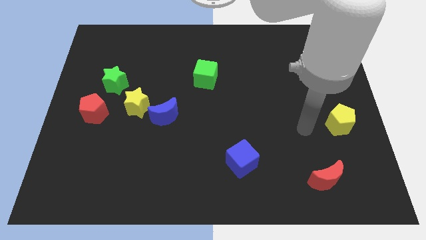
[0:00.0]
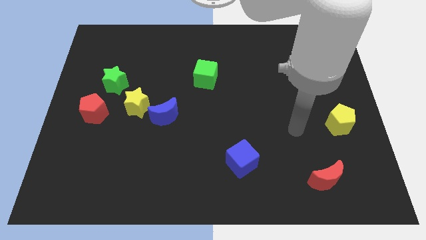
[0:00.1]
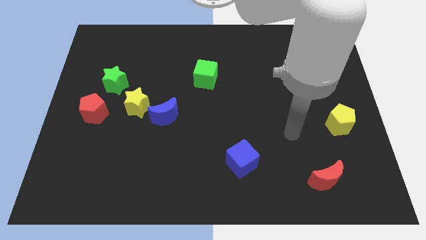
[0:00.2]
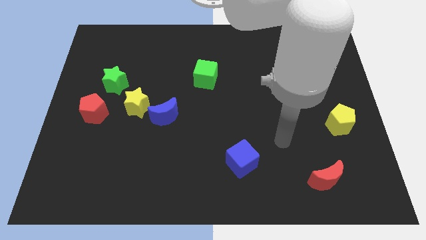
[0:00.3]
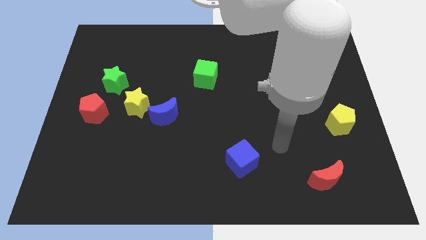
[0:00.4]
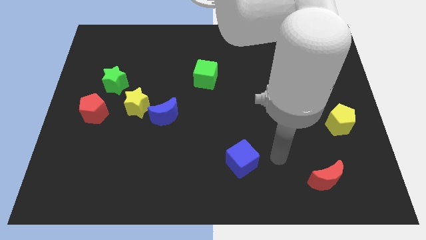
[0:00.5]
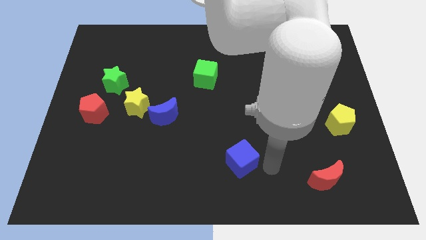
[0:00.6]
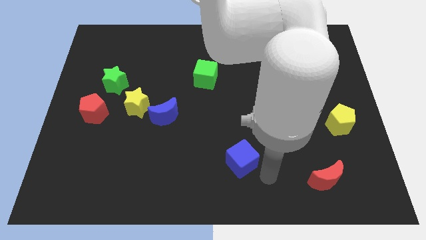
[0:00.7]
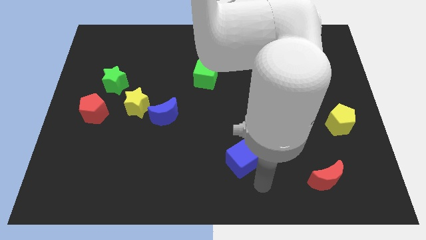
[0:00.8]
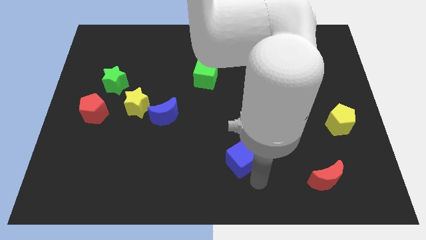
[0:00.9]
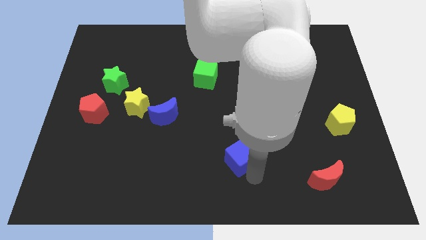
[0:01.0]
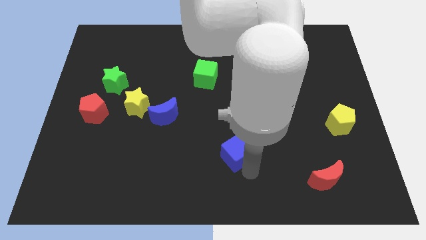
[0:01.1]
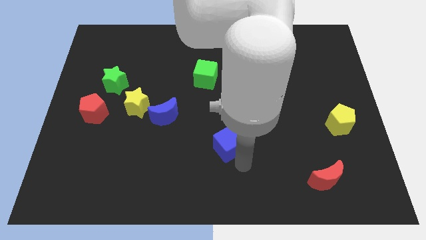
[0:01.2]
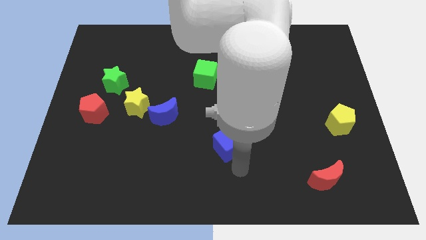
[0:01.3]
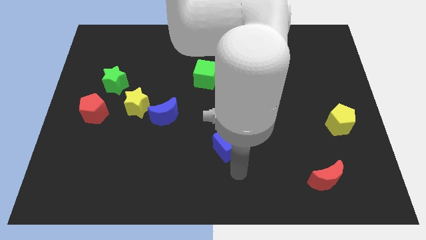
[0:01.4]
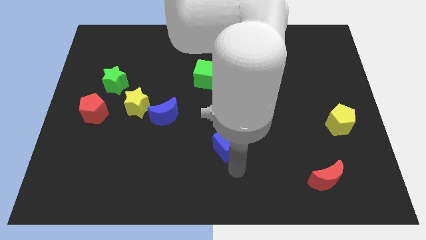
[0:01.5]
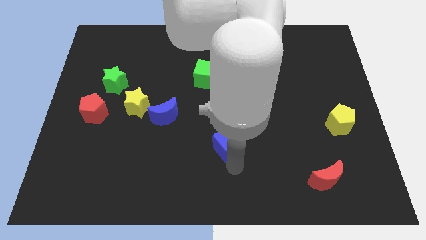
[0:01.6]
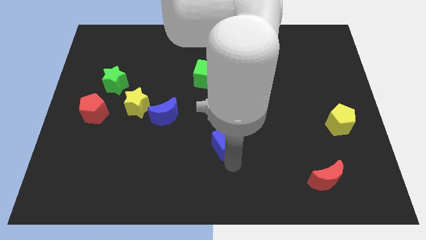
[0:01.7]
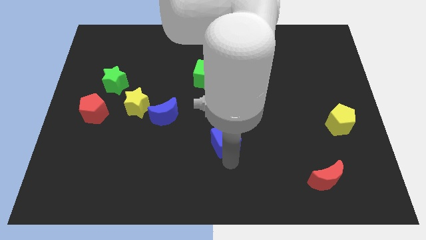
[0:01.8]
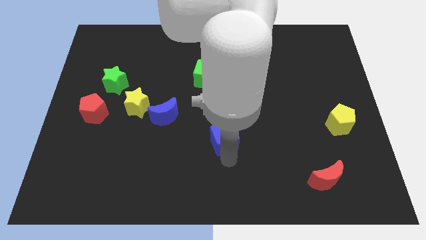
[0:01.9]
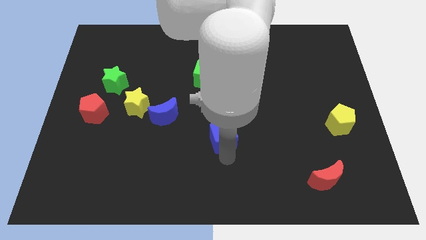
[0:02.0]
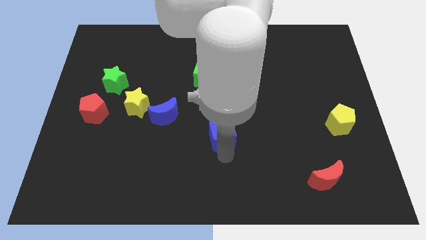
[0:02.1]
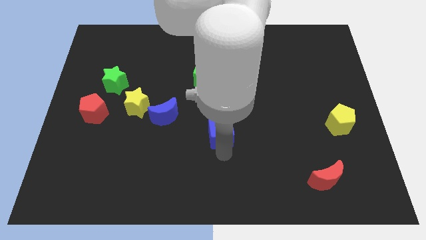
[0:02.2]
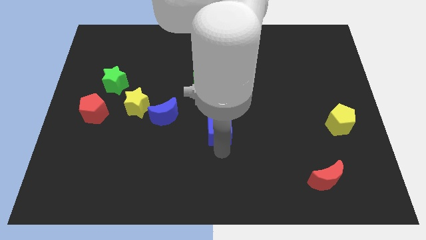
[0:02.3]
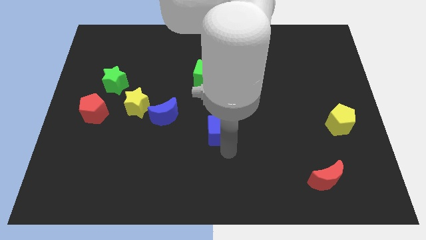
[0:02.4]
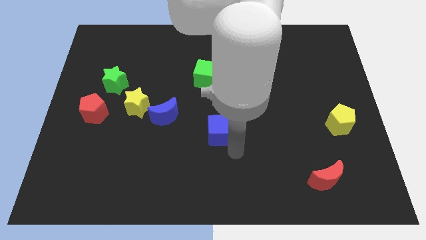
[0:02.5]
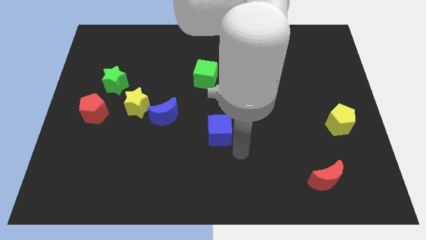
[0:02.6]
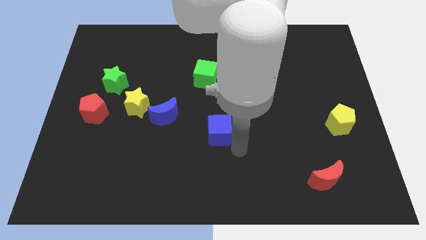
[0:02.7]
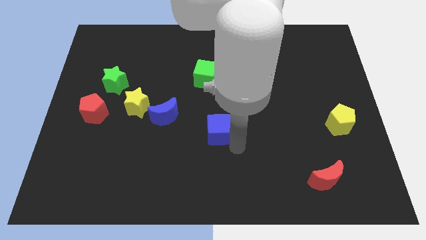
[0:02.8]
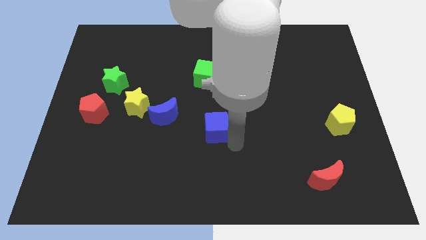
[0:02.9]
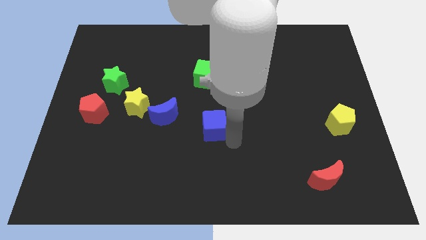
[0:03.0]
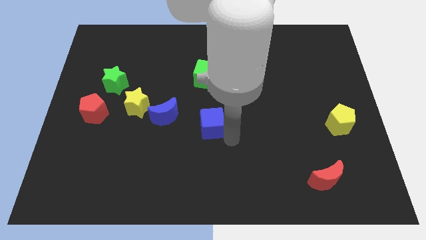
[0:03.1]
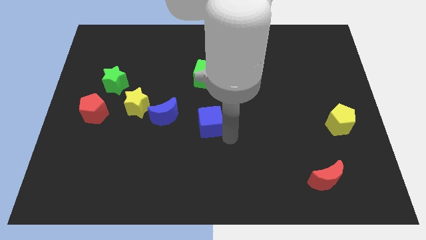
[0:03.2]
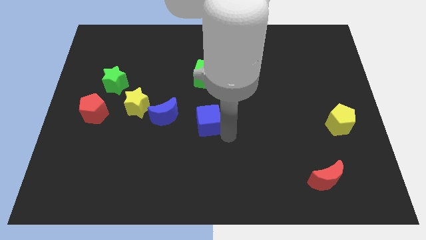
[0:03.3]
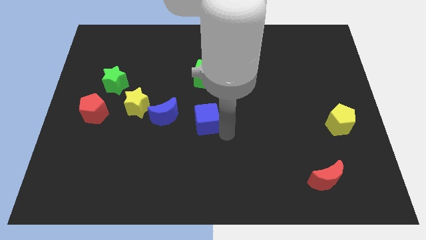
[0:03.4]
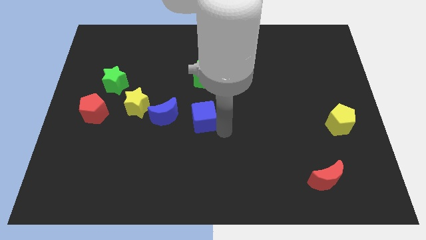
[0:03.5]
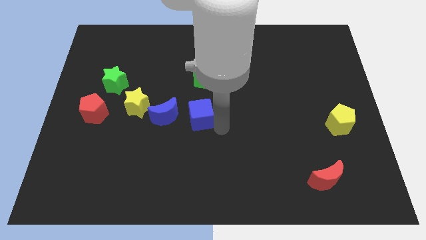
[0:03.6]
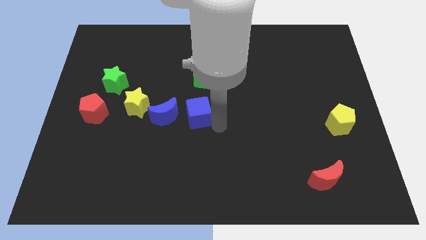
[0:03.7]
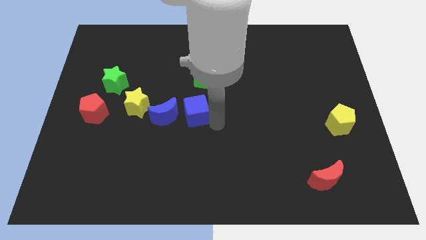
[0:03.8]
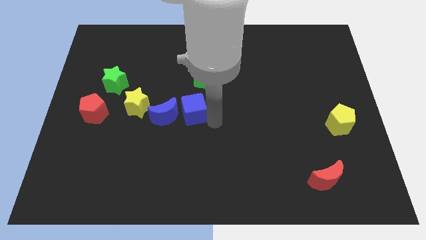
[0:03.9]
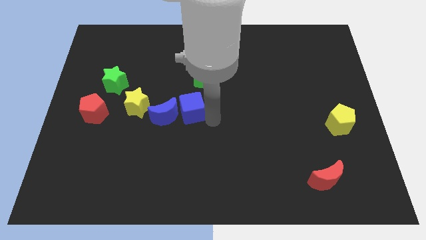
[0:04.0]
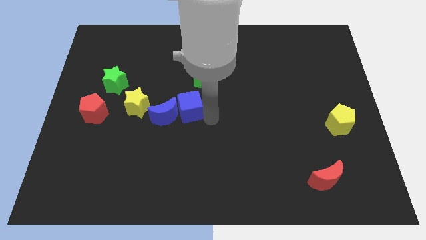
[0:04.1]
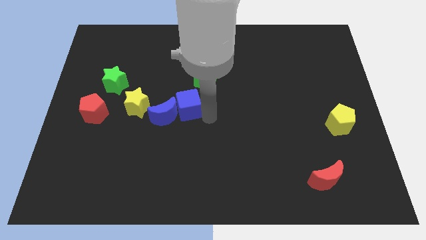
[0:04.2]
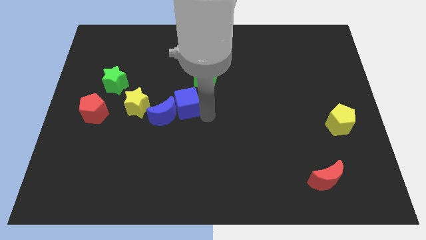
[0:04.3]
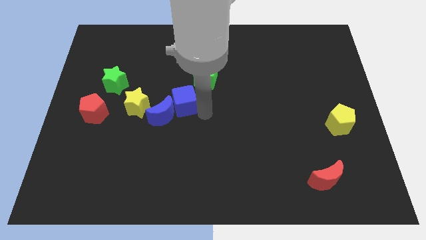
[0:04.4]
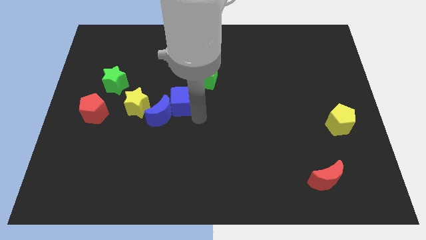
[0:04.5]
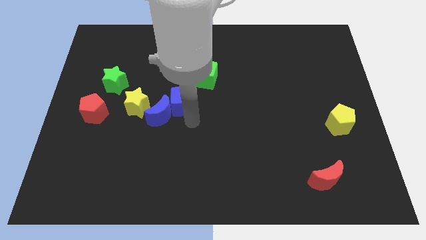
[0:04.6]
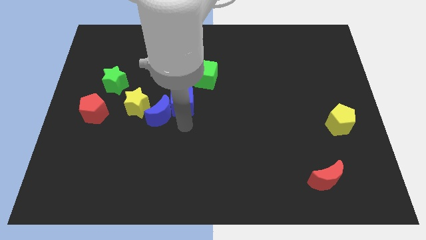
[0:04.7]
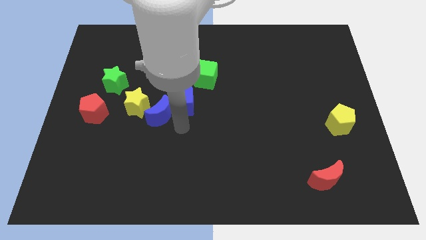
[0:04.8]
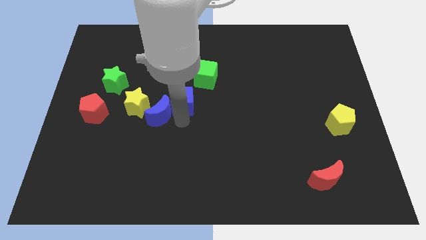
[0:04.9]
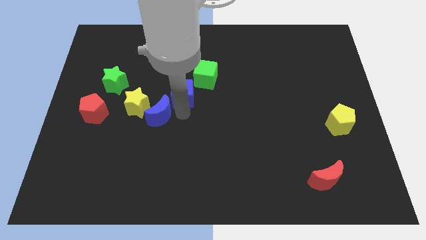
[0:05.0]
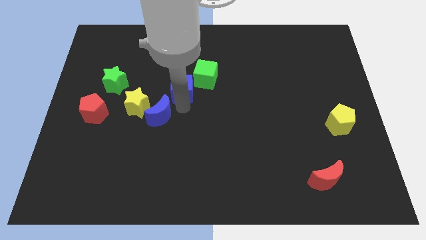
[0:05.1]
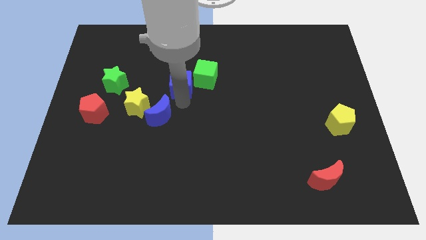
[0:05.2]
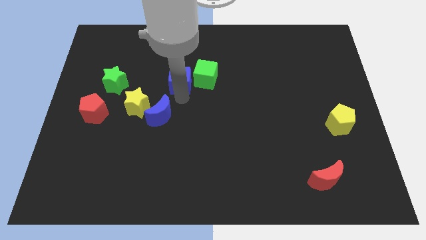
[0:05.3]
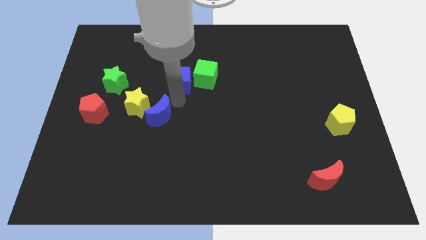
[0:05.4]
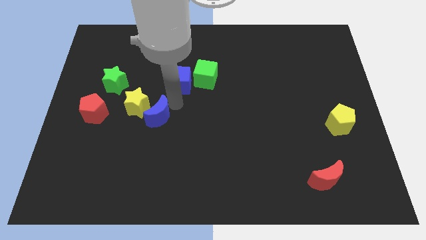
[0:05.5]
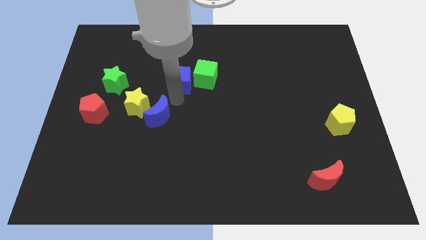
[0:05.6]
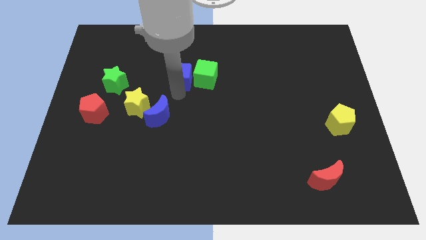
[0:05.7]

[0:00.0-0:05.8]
push the blue cube to the top left side of the green cube
